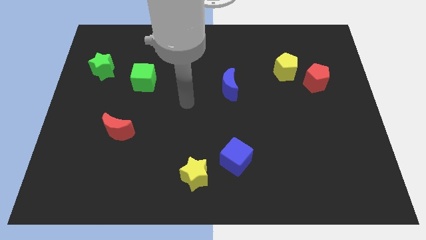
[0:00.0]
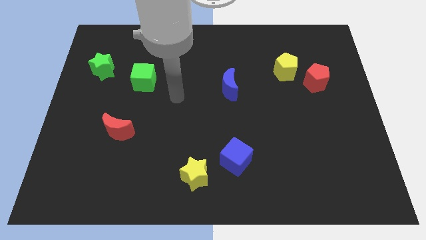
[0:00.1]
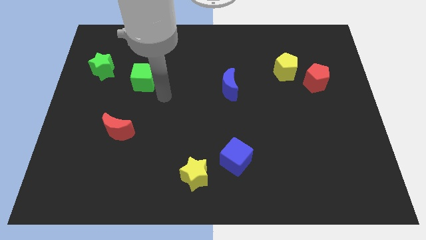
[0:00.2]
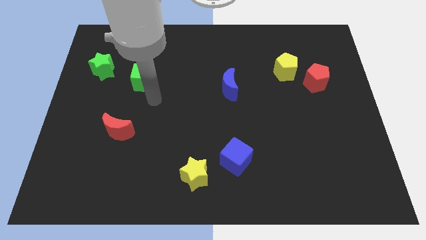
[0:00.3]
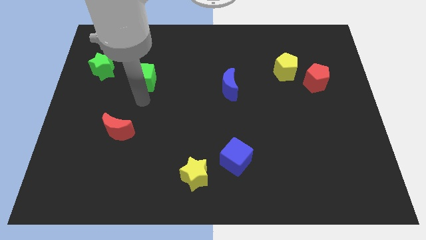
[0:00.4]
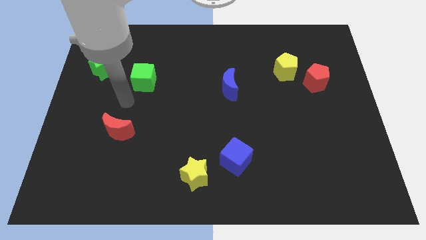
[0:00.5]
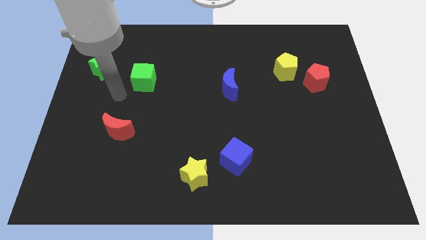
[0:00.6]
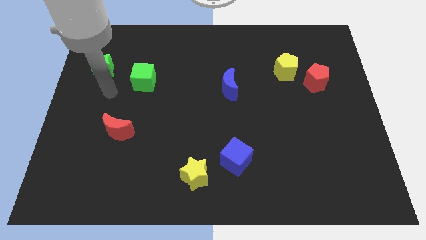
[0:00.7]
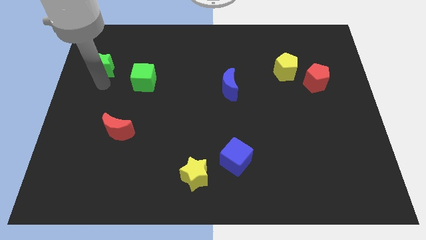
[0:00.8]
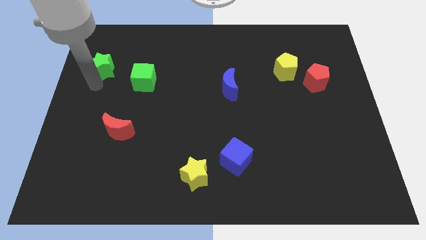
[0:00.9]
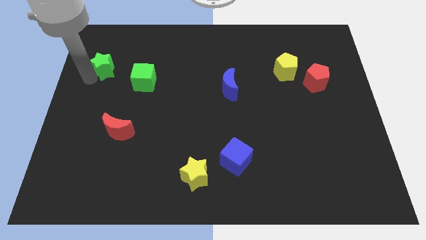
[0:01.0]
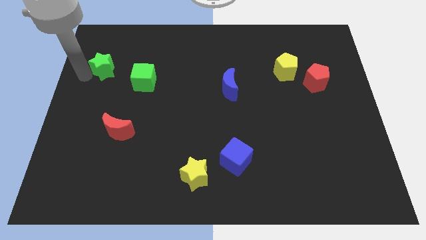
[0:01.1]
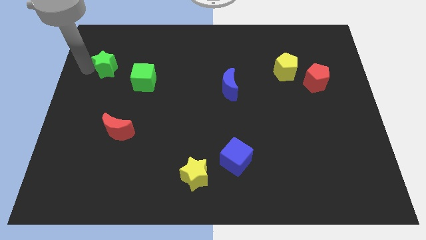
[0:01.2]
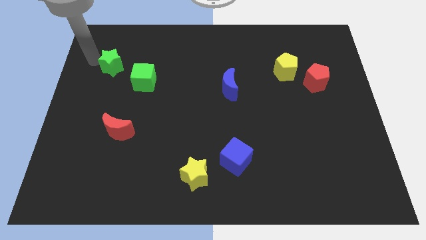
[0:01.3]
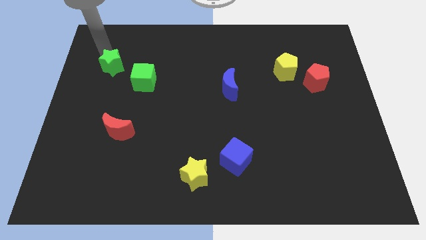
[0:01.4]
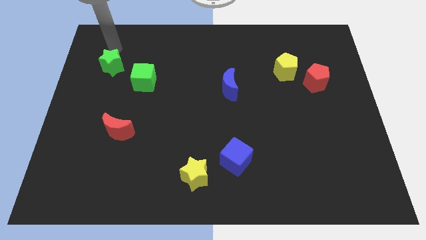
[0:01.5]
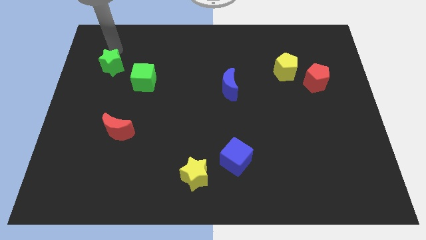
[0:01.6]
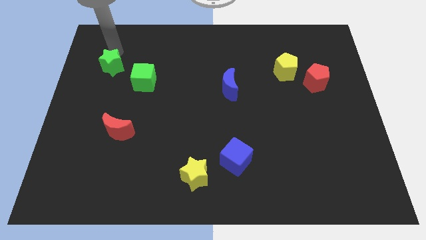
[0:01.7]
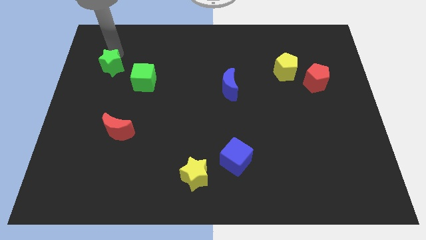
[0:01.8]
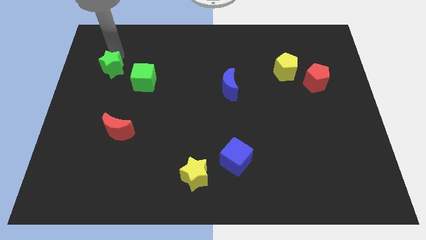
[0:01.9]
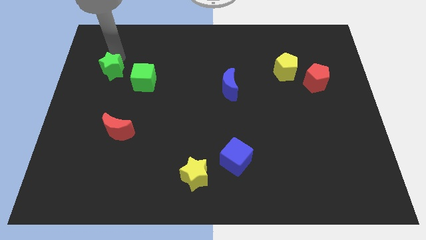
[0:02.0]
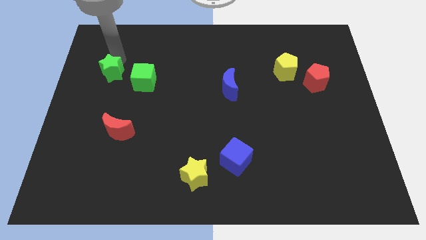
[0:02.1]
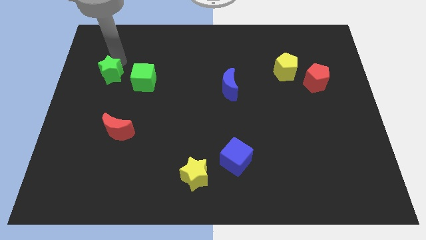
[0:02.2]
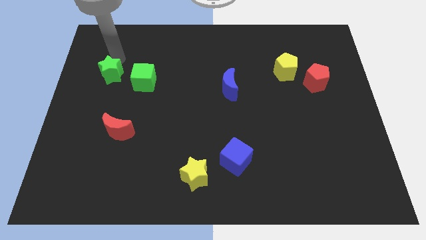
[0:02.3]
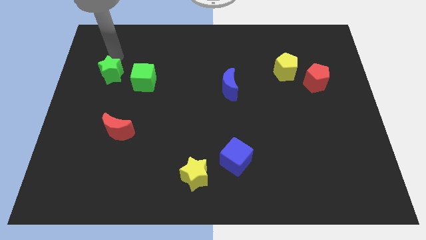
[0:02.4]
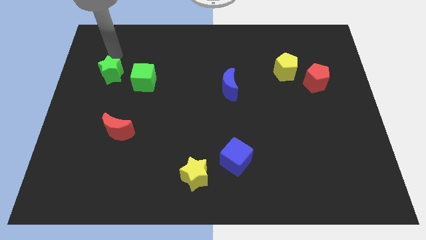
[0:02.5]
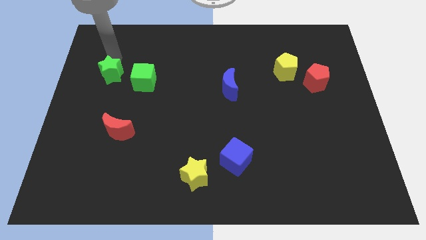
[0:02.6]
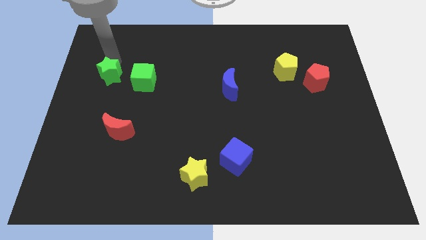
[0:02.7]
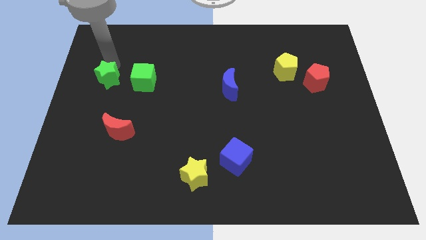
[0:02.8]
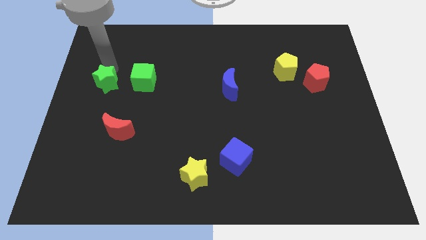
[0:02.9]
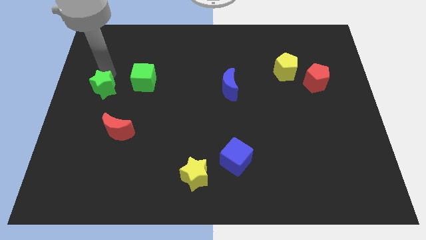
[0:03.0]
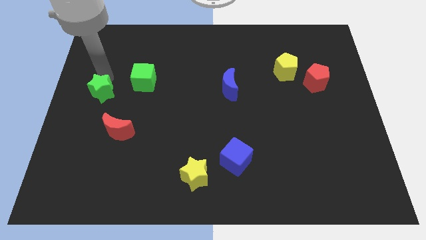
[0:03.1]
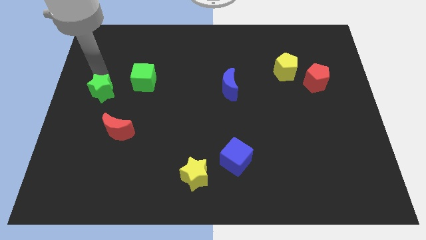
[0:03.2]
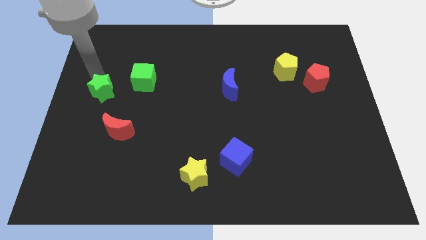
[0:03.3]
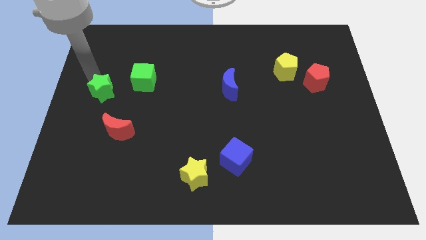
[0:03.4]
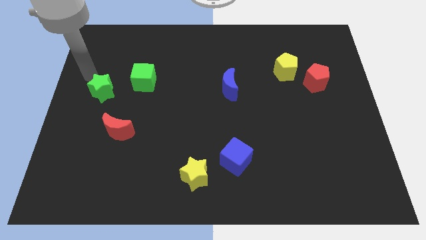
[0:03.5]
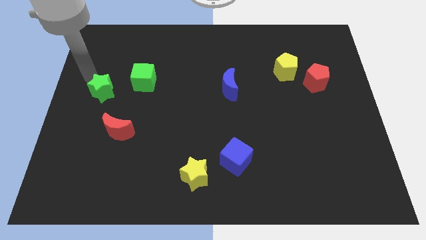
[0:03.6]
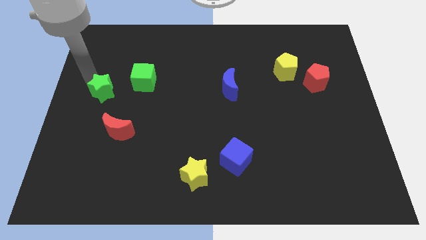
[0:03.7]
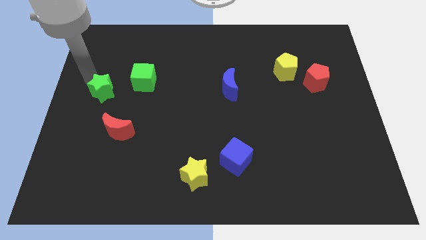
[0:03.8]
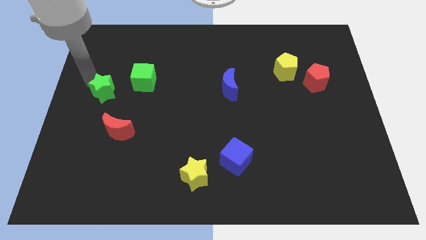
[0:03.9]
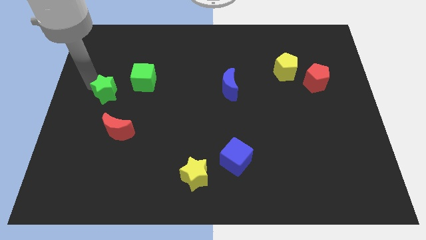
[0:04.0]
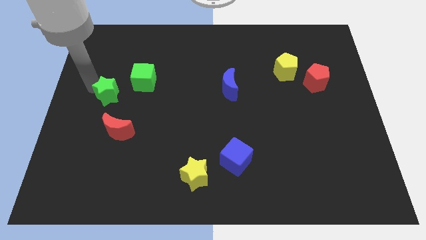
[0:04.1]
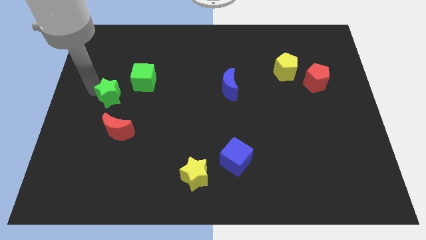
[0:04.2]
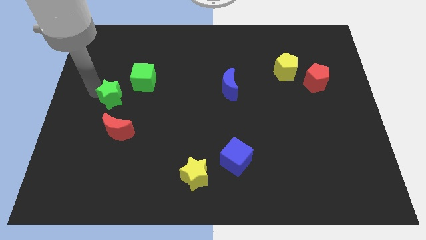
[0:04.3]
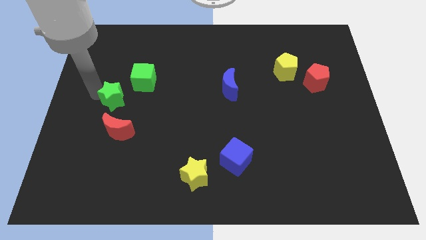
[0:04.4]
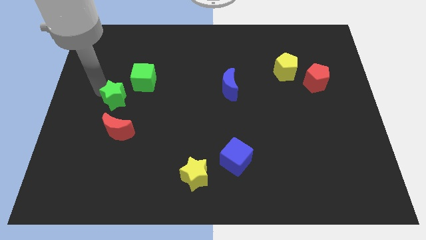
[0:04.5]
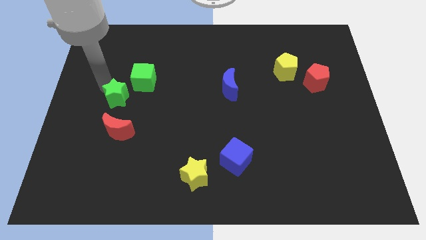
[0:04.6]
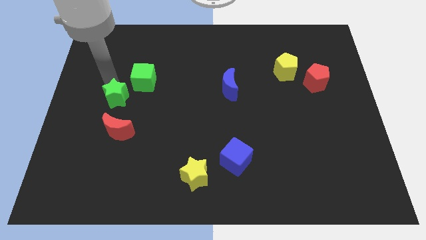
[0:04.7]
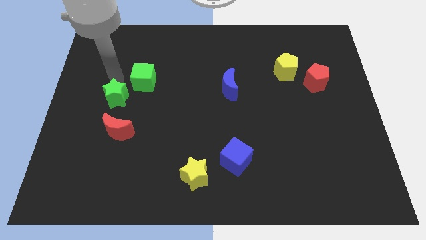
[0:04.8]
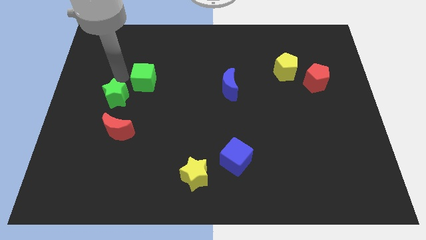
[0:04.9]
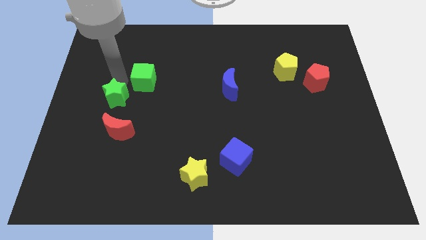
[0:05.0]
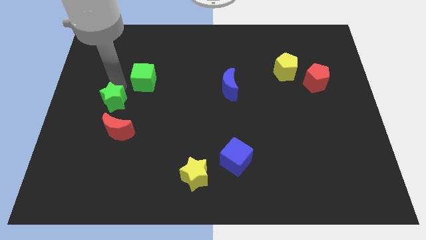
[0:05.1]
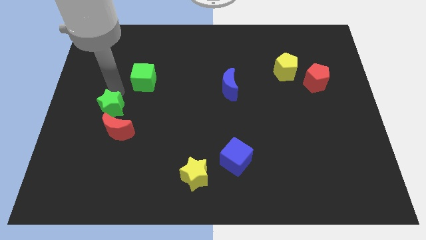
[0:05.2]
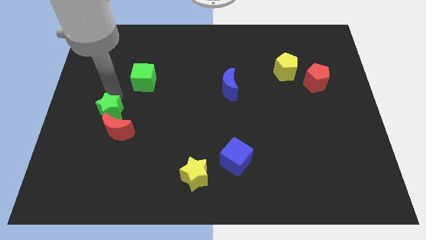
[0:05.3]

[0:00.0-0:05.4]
put the green star towards the red moon

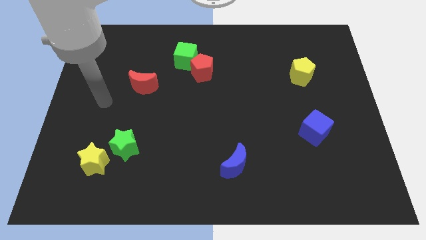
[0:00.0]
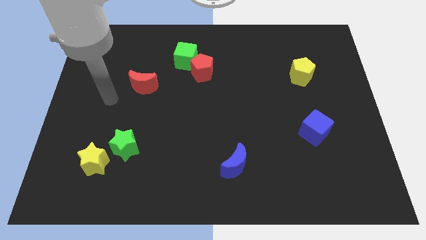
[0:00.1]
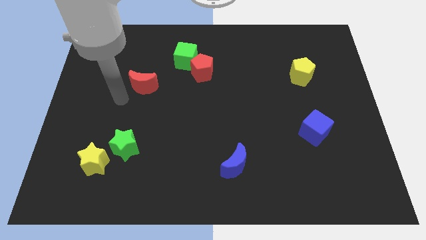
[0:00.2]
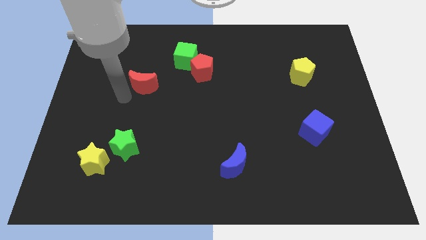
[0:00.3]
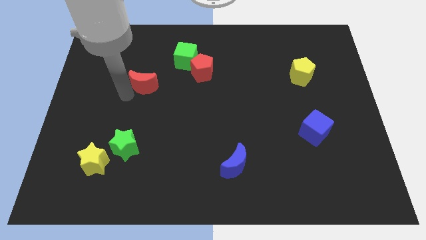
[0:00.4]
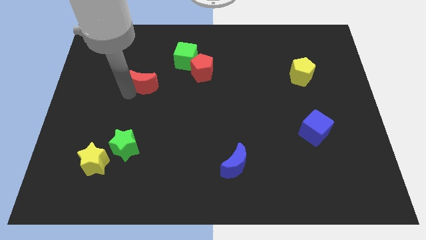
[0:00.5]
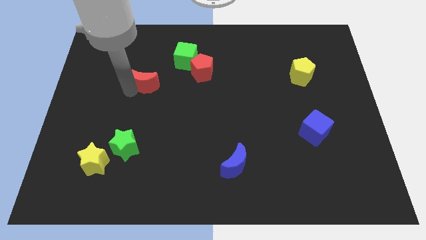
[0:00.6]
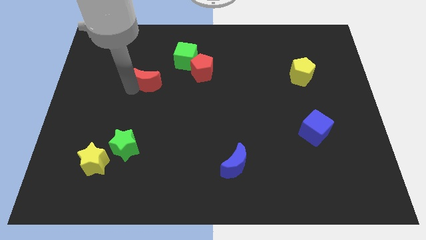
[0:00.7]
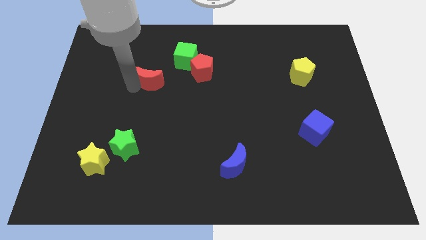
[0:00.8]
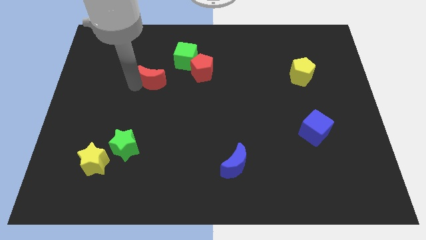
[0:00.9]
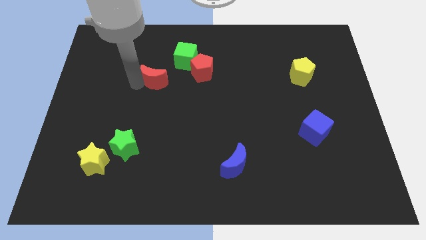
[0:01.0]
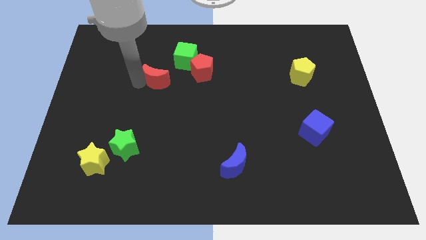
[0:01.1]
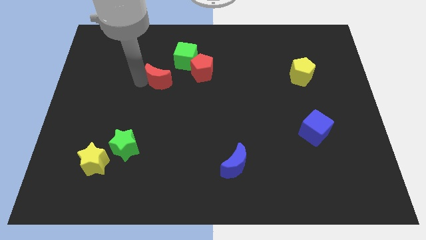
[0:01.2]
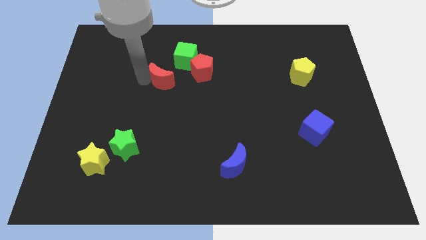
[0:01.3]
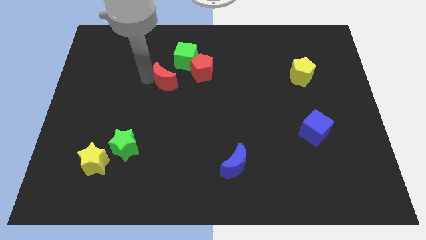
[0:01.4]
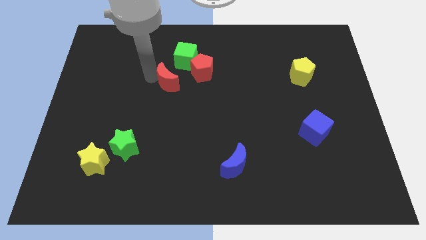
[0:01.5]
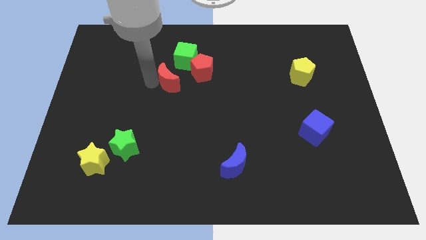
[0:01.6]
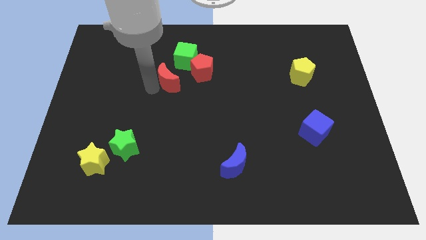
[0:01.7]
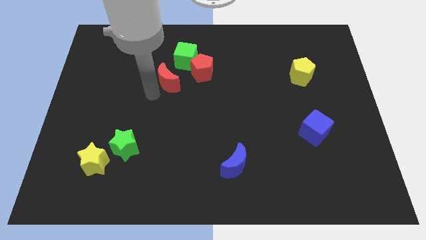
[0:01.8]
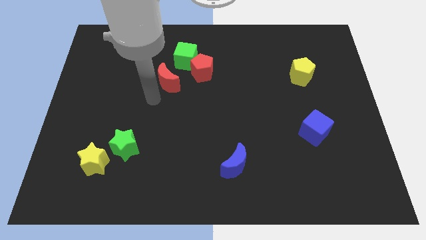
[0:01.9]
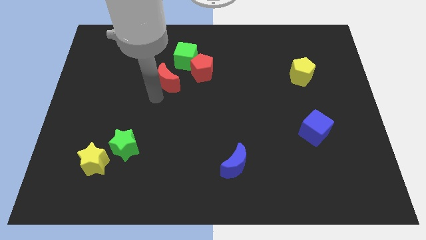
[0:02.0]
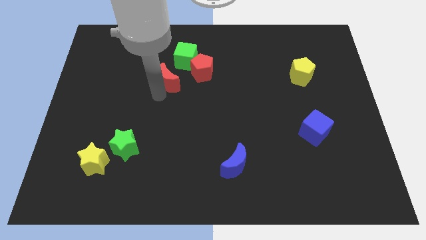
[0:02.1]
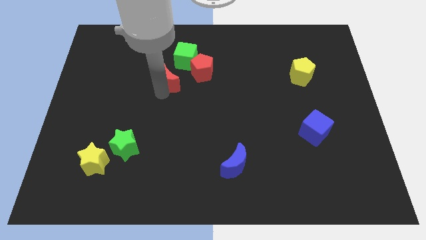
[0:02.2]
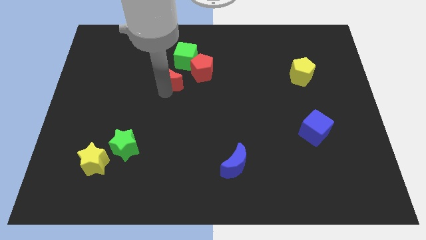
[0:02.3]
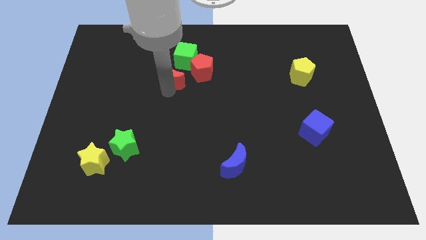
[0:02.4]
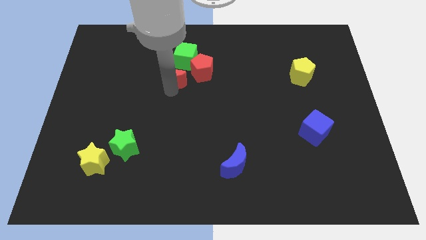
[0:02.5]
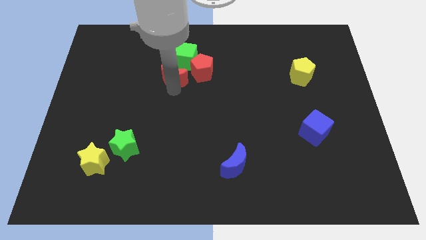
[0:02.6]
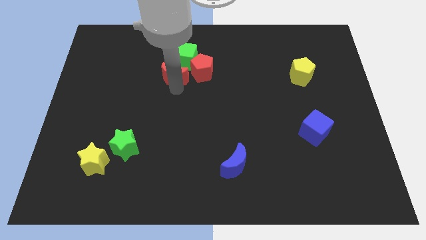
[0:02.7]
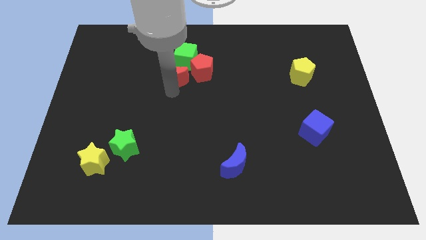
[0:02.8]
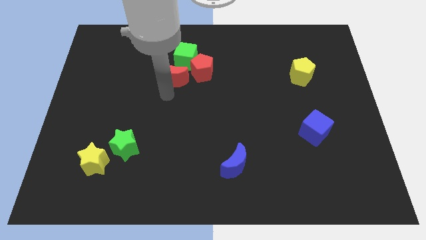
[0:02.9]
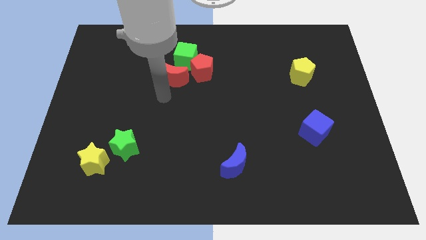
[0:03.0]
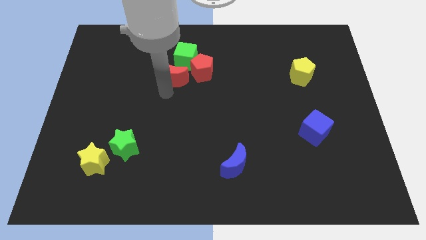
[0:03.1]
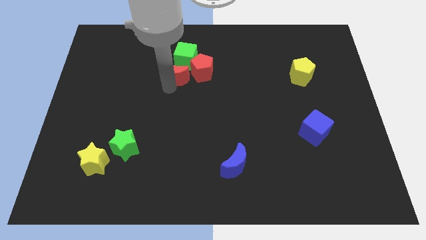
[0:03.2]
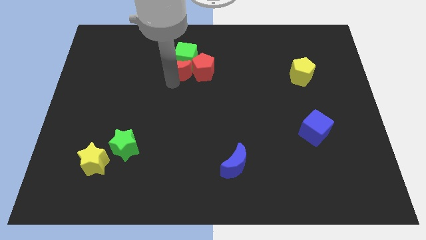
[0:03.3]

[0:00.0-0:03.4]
slide the red moon close to the green cube
